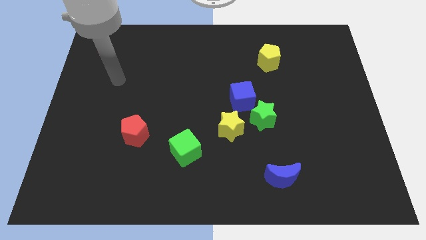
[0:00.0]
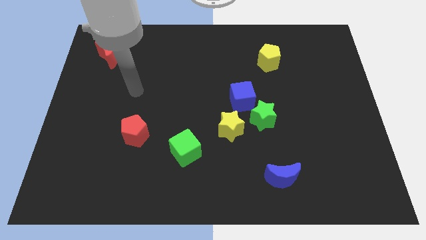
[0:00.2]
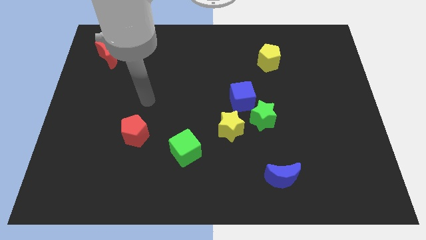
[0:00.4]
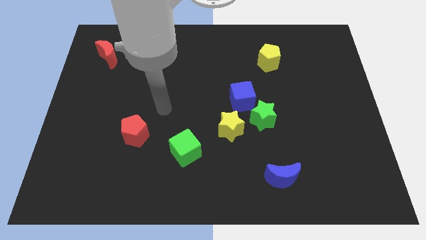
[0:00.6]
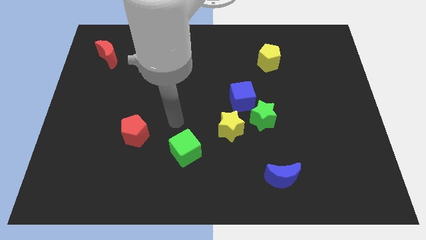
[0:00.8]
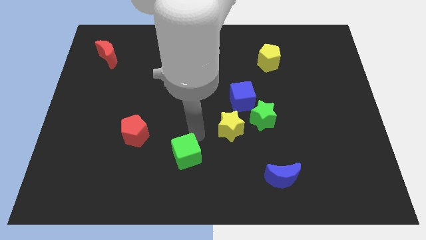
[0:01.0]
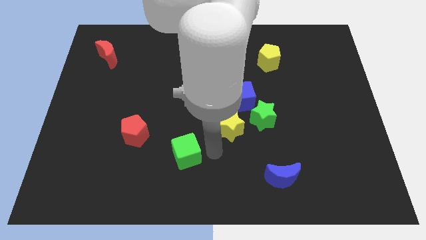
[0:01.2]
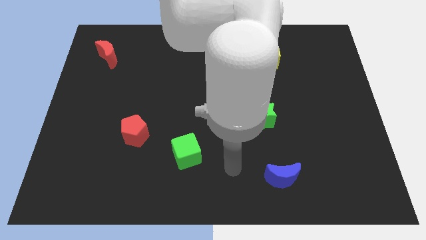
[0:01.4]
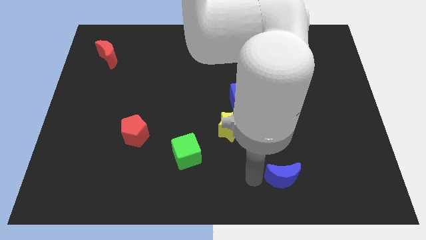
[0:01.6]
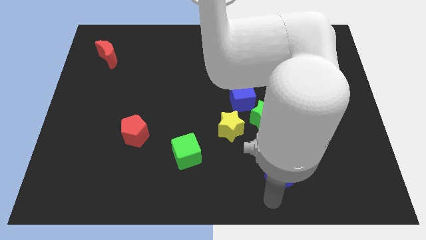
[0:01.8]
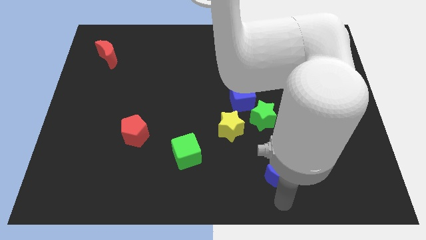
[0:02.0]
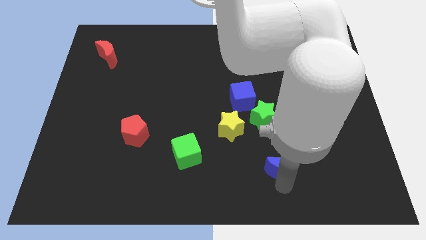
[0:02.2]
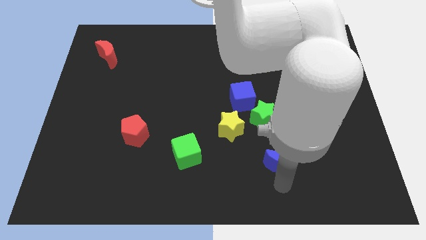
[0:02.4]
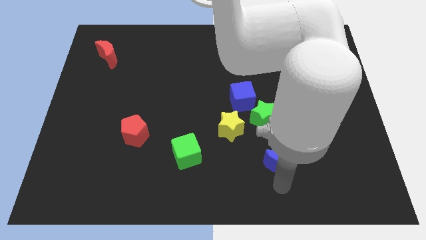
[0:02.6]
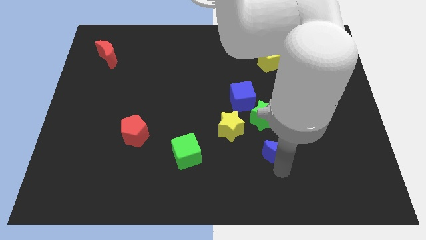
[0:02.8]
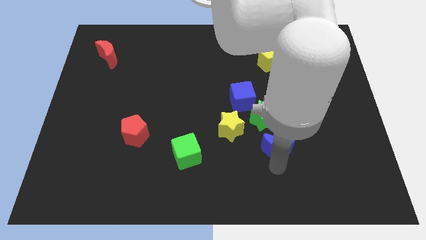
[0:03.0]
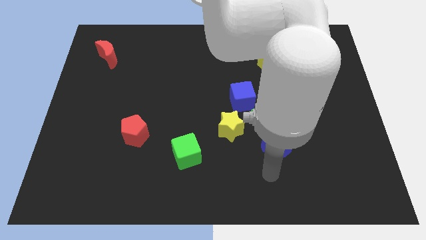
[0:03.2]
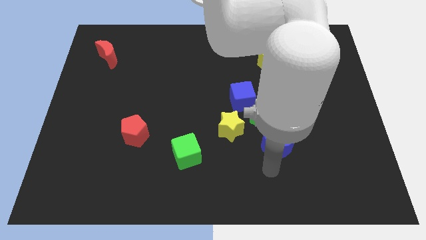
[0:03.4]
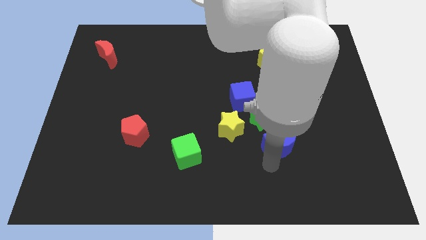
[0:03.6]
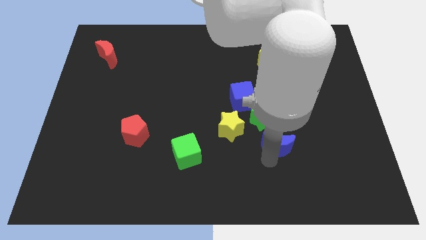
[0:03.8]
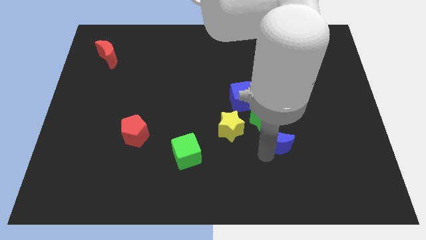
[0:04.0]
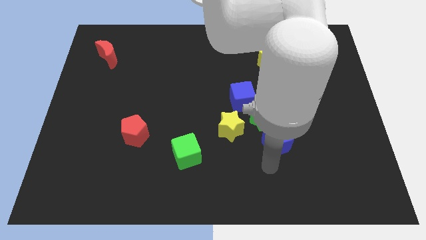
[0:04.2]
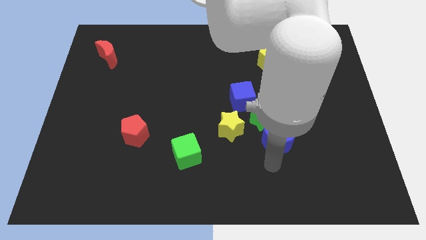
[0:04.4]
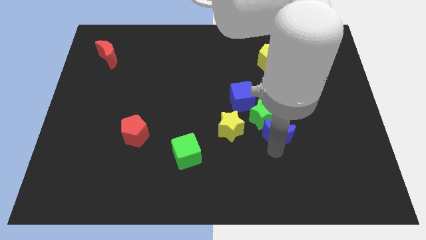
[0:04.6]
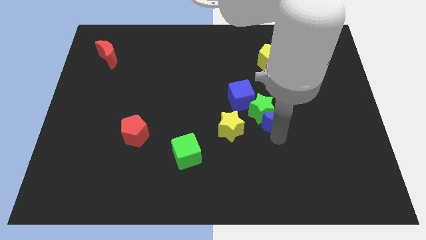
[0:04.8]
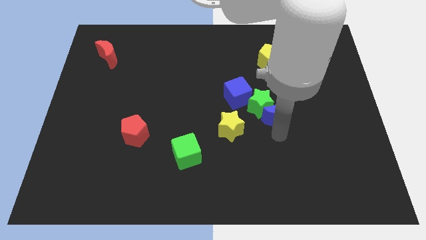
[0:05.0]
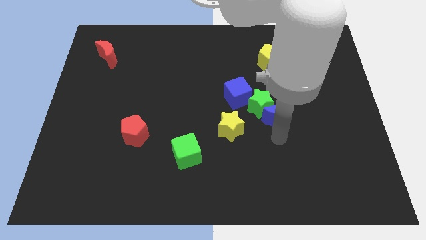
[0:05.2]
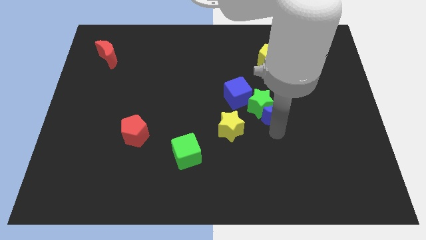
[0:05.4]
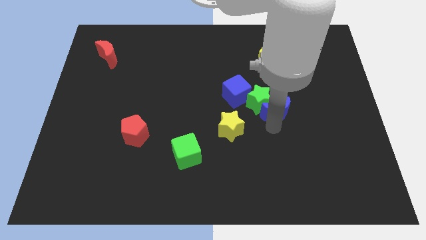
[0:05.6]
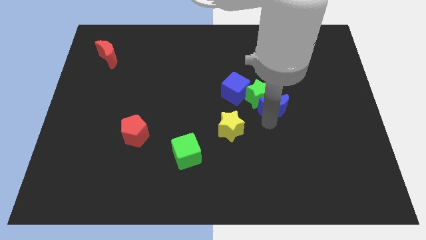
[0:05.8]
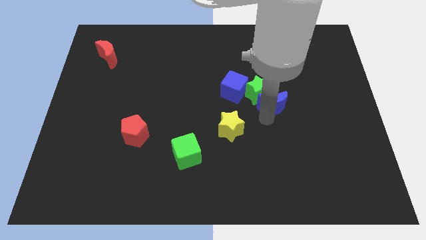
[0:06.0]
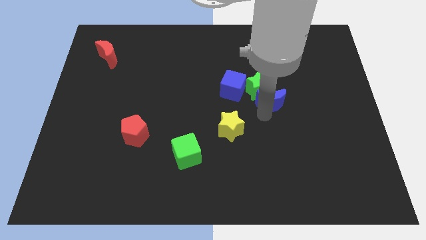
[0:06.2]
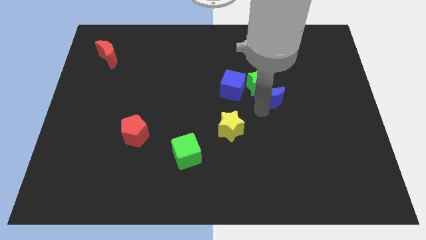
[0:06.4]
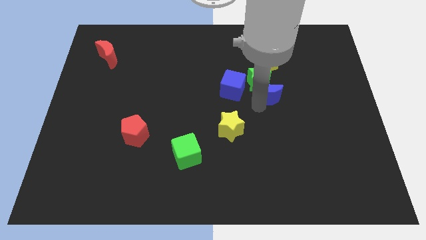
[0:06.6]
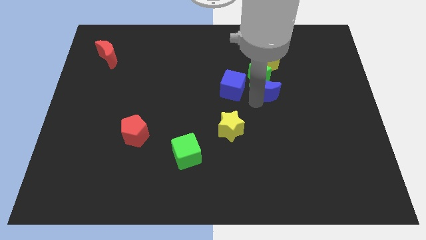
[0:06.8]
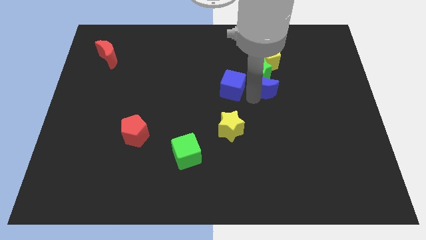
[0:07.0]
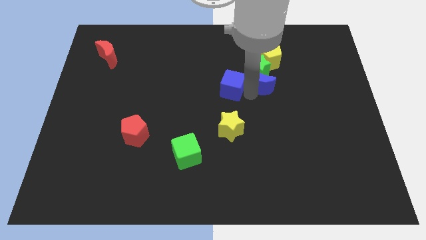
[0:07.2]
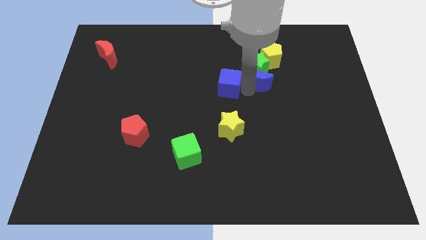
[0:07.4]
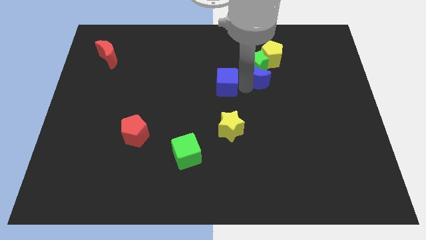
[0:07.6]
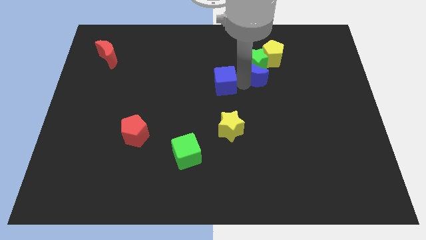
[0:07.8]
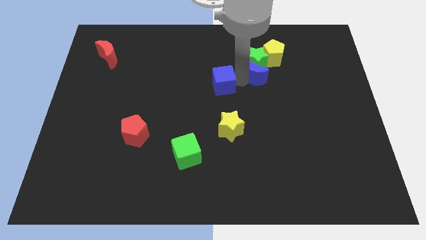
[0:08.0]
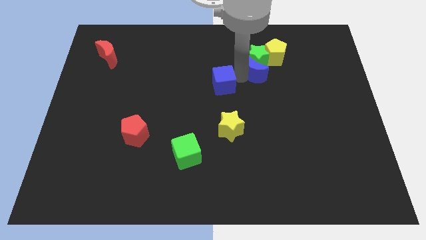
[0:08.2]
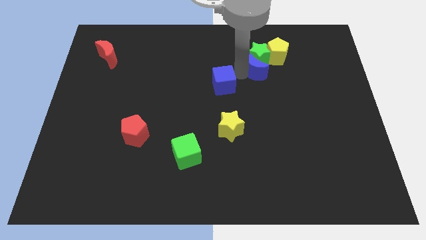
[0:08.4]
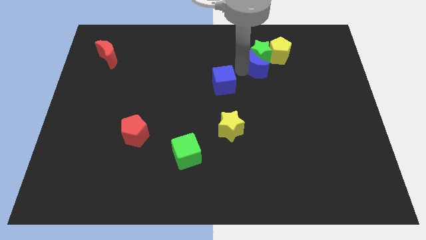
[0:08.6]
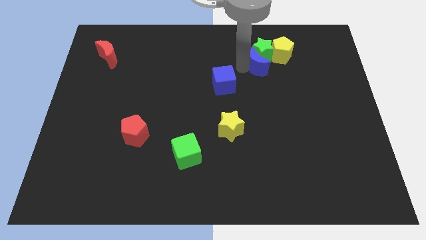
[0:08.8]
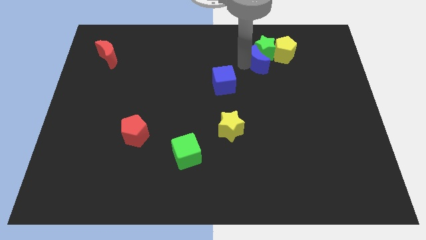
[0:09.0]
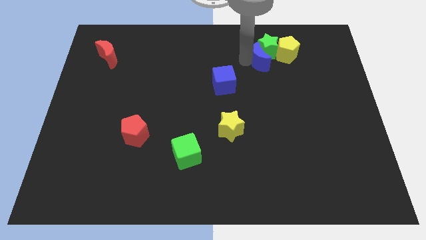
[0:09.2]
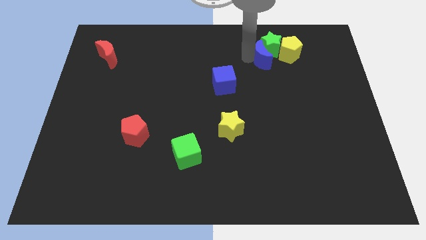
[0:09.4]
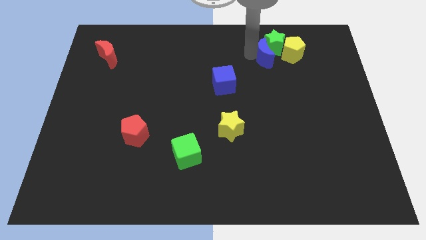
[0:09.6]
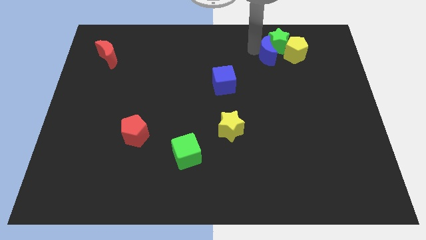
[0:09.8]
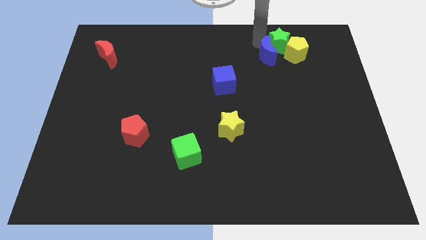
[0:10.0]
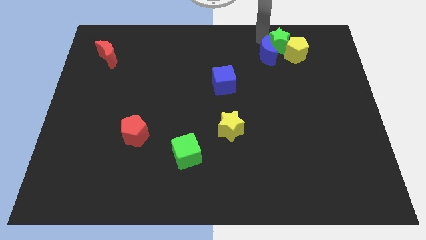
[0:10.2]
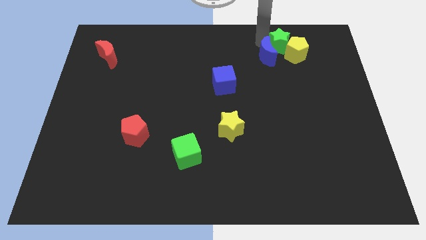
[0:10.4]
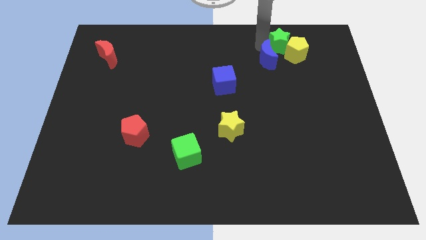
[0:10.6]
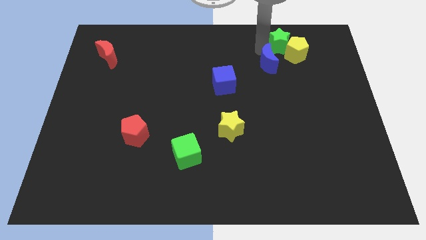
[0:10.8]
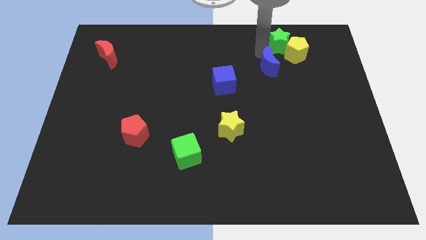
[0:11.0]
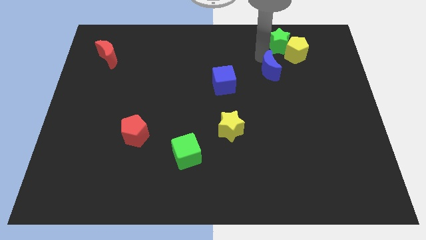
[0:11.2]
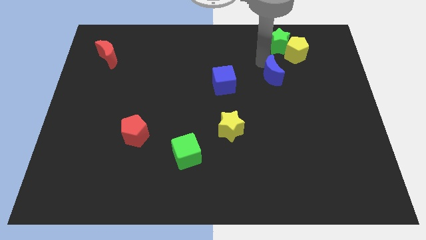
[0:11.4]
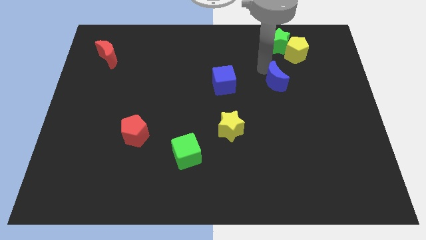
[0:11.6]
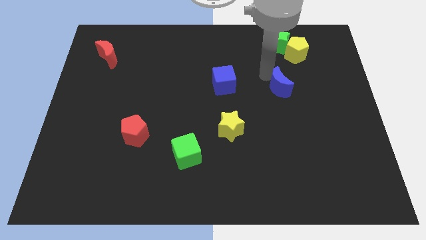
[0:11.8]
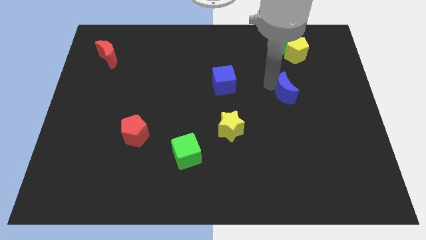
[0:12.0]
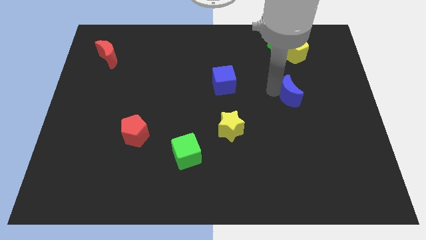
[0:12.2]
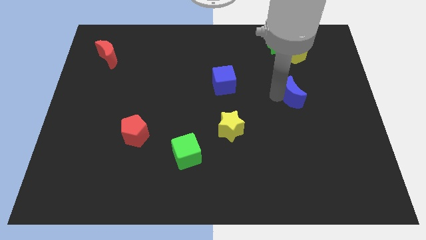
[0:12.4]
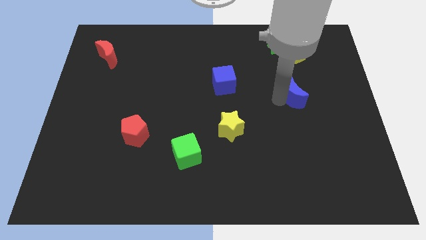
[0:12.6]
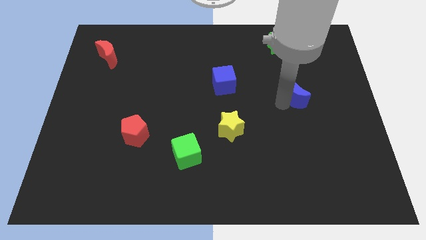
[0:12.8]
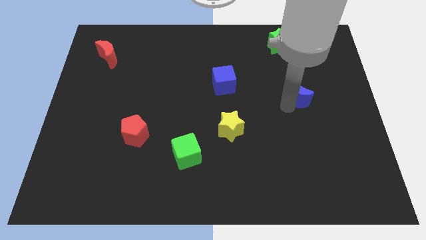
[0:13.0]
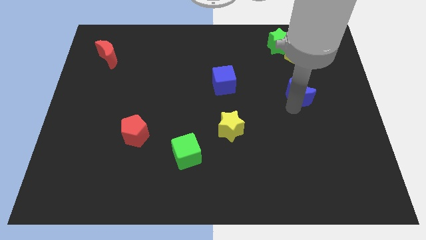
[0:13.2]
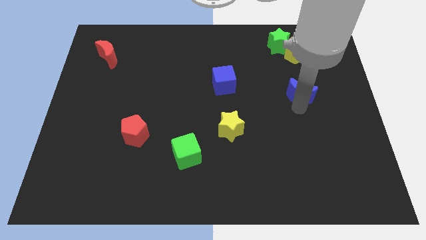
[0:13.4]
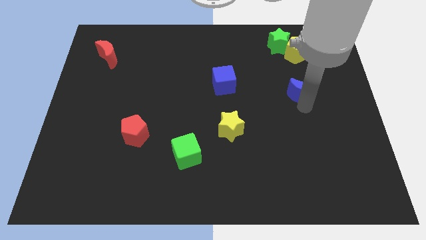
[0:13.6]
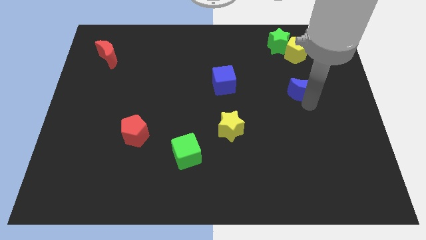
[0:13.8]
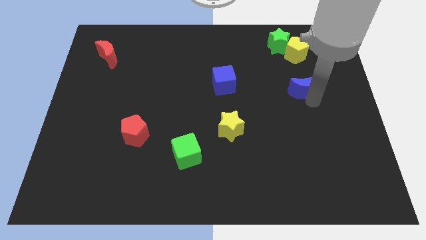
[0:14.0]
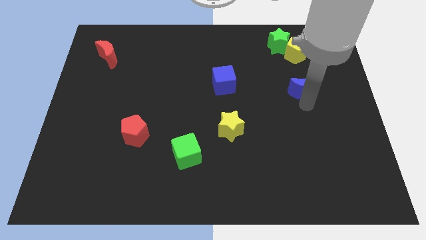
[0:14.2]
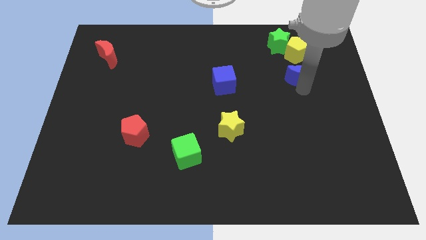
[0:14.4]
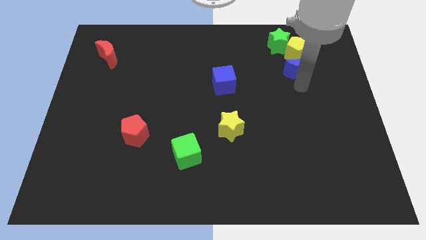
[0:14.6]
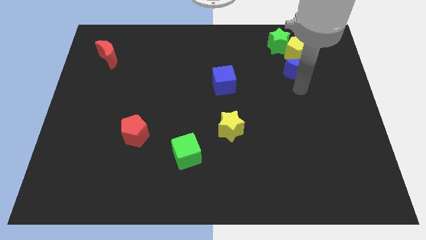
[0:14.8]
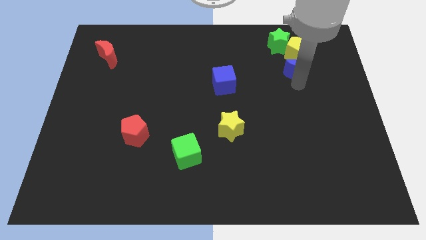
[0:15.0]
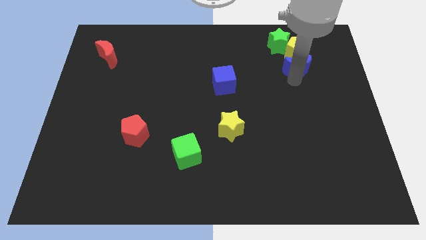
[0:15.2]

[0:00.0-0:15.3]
put the blue moon next to the yellow pentagon
